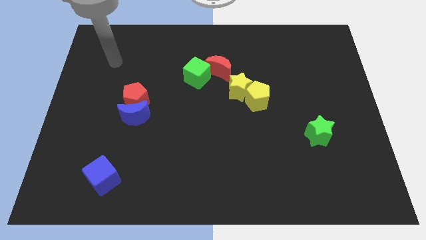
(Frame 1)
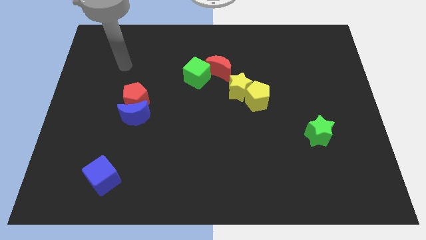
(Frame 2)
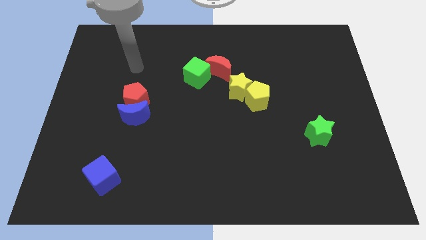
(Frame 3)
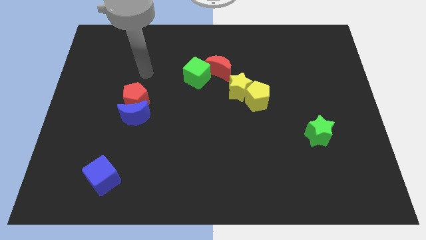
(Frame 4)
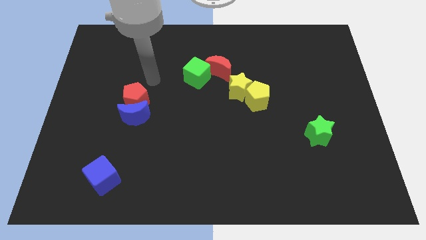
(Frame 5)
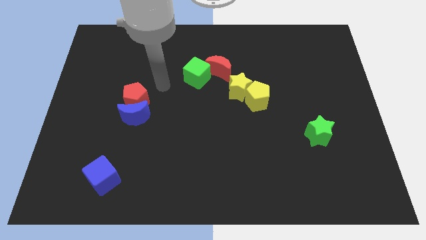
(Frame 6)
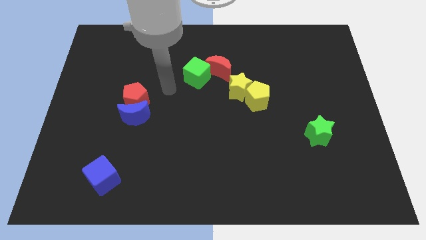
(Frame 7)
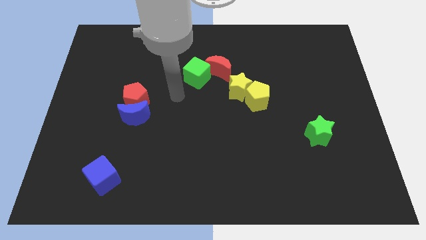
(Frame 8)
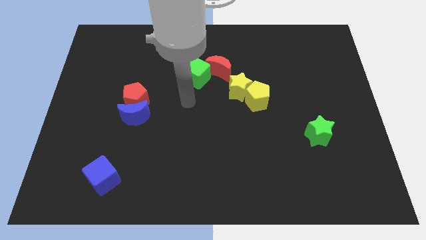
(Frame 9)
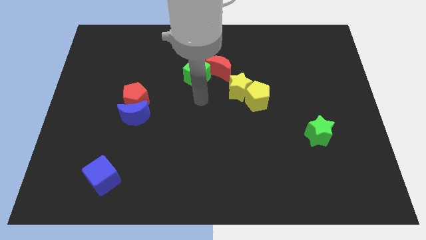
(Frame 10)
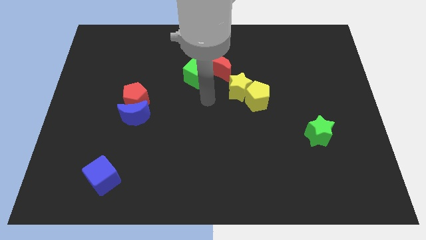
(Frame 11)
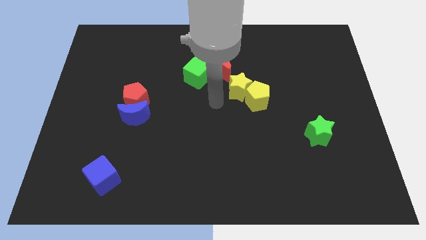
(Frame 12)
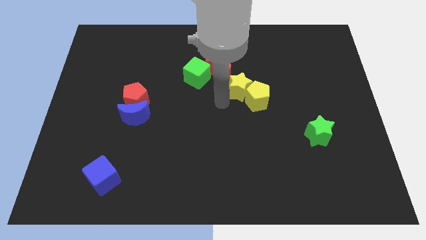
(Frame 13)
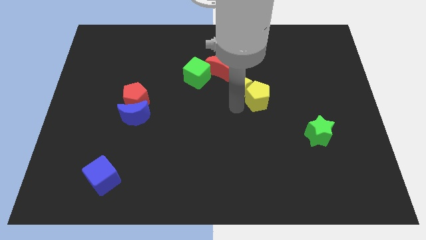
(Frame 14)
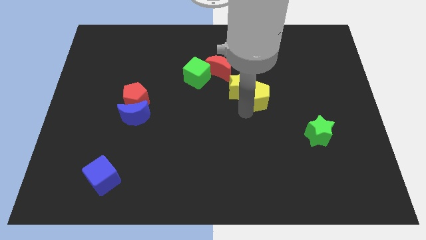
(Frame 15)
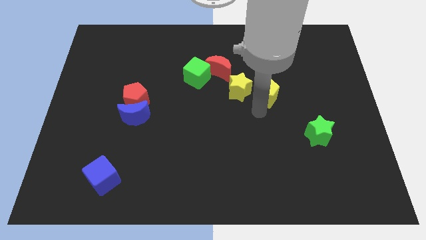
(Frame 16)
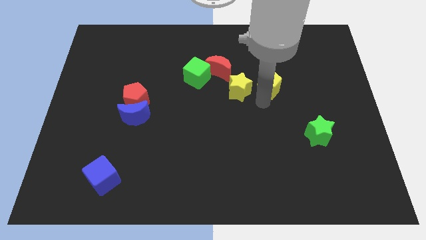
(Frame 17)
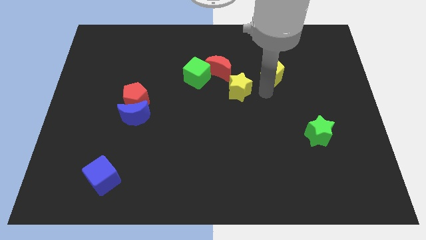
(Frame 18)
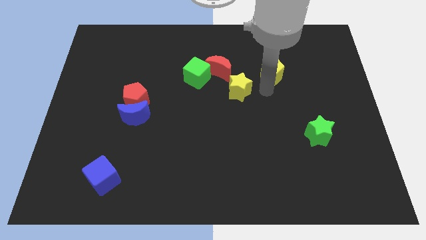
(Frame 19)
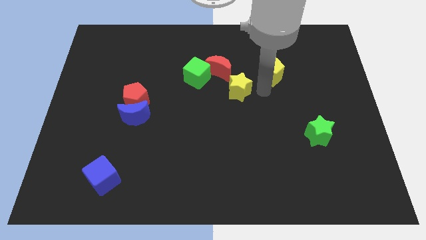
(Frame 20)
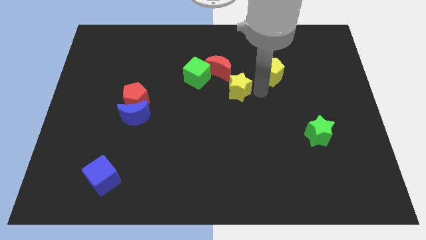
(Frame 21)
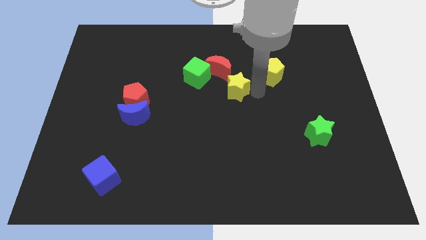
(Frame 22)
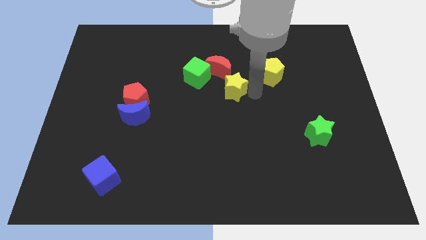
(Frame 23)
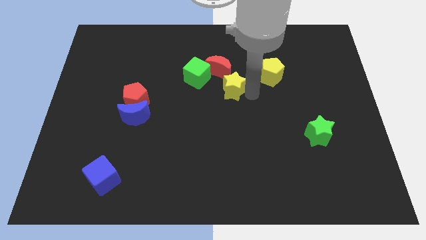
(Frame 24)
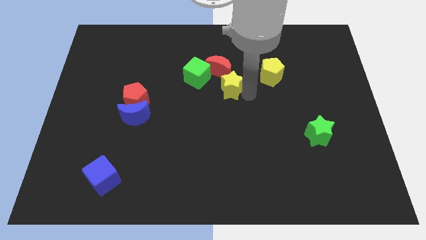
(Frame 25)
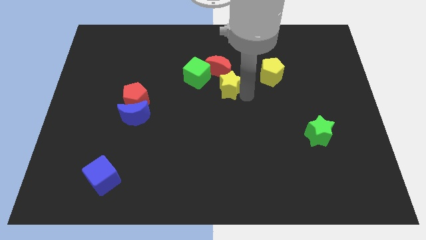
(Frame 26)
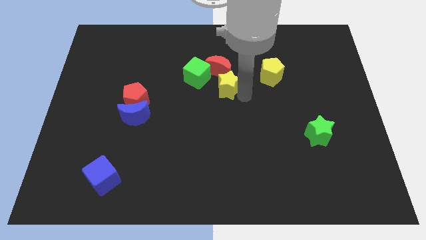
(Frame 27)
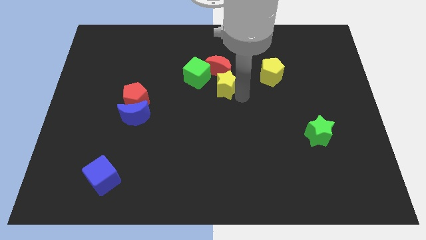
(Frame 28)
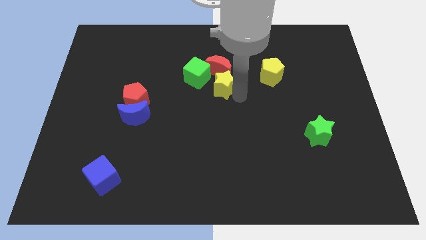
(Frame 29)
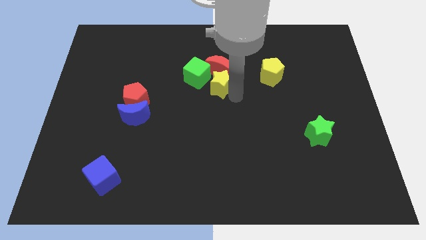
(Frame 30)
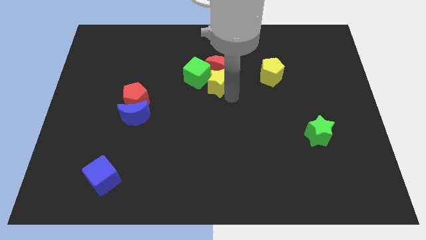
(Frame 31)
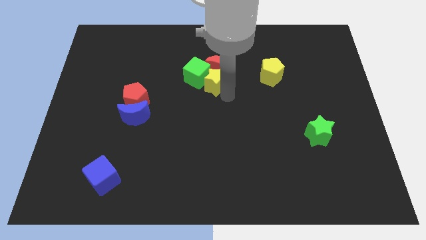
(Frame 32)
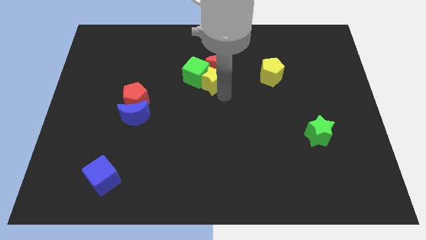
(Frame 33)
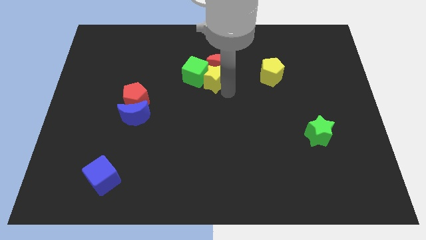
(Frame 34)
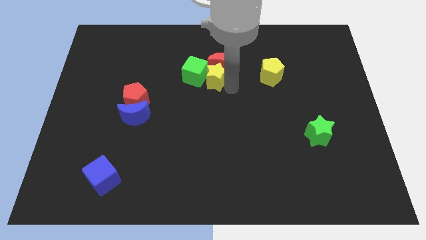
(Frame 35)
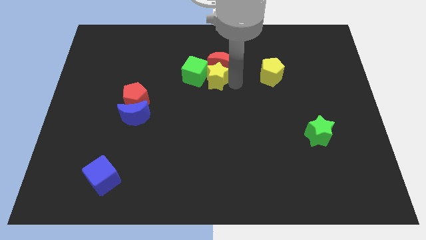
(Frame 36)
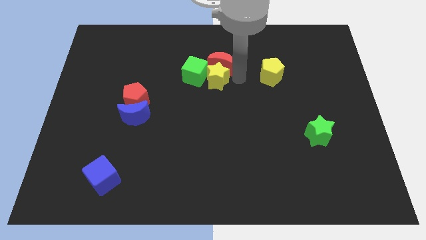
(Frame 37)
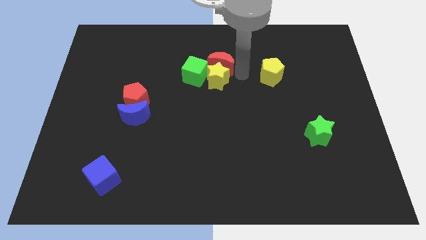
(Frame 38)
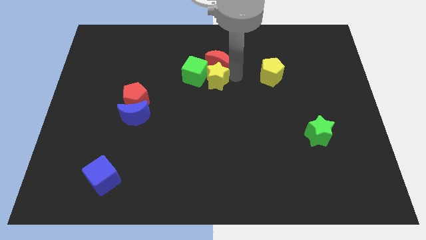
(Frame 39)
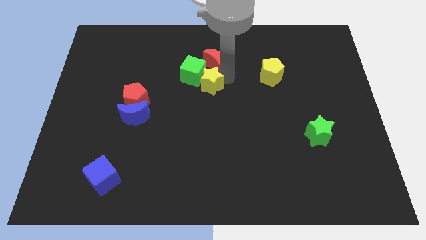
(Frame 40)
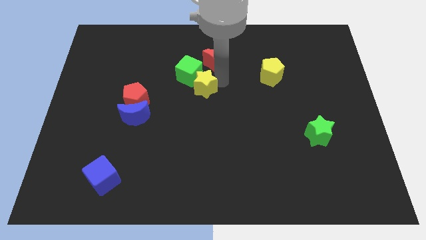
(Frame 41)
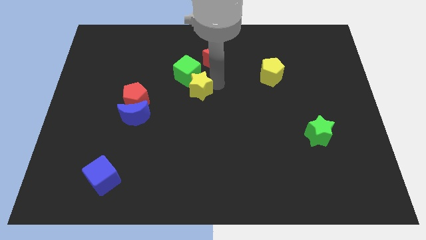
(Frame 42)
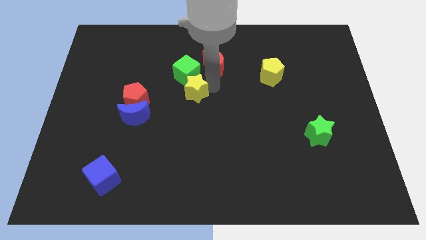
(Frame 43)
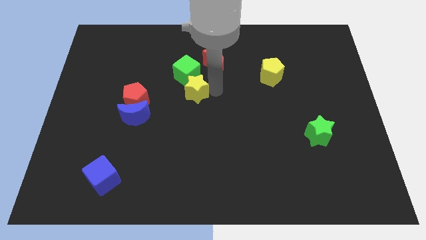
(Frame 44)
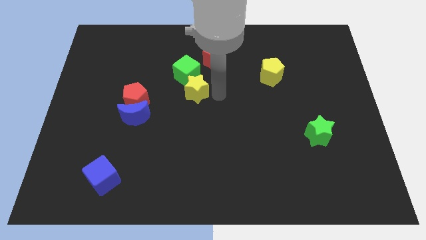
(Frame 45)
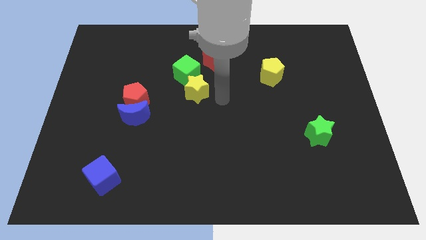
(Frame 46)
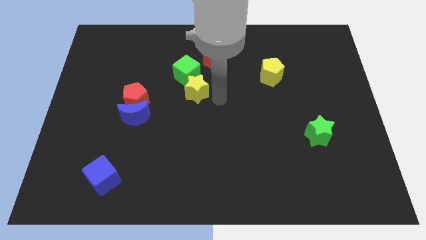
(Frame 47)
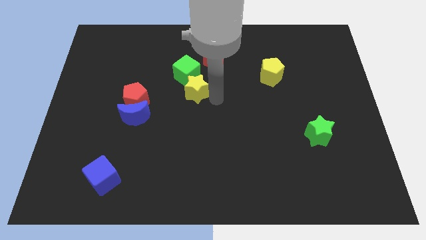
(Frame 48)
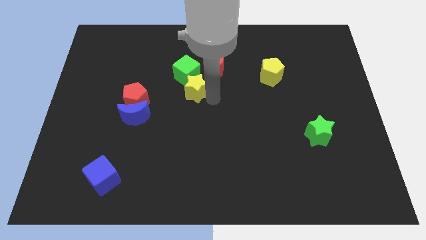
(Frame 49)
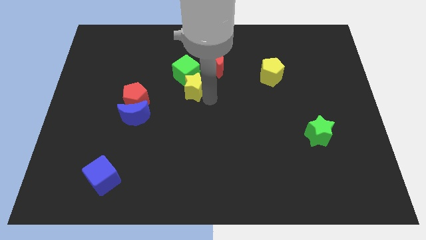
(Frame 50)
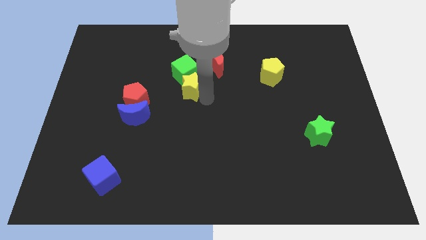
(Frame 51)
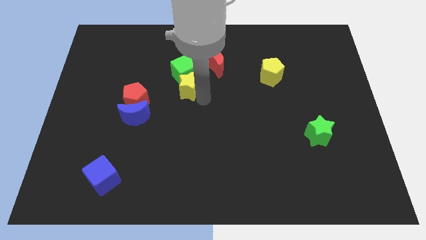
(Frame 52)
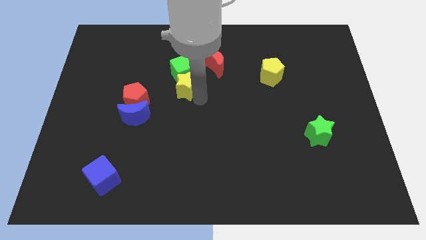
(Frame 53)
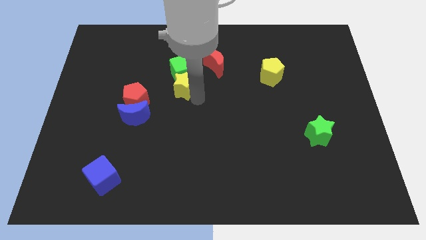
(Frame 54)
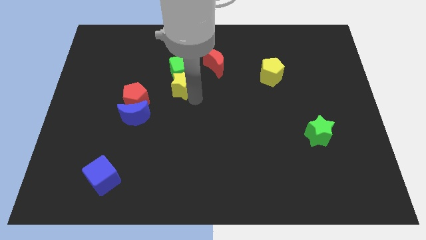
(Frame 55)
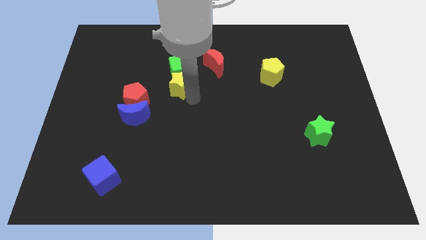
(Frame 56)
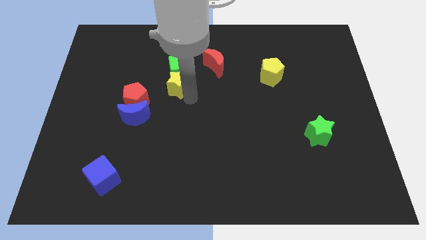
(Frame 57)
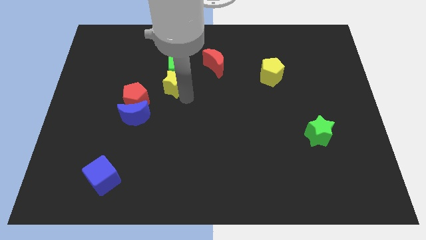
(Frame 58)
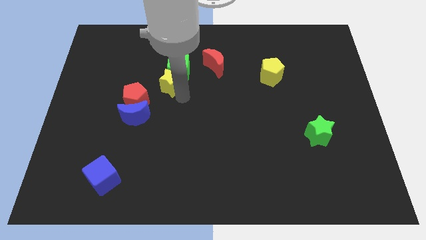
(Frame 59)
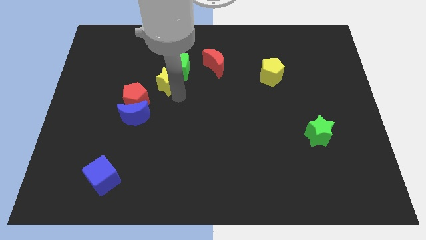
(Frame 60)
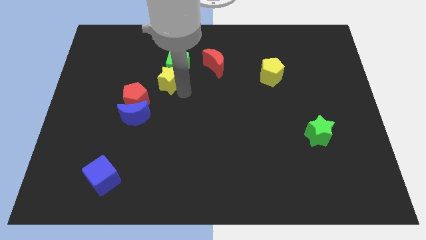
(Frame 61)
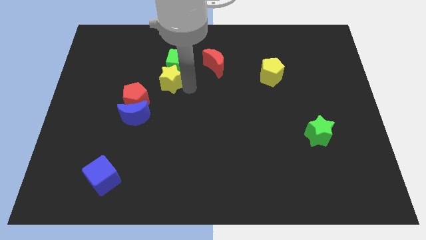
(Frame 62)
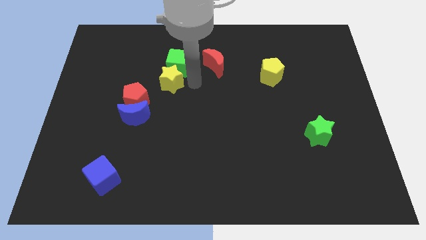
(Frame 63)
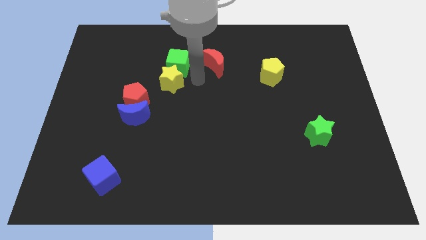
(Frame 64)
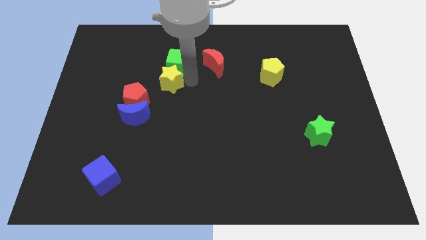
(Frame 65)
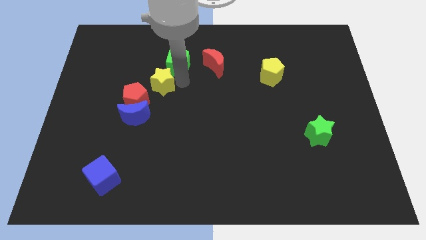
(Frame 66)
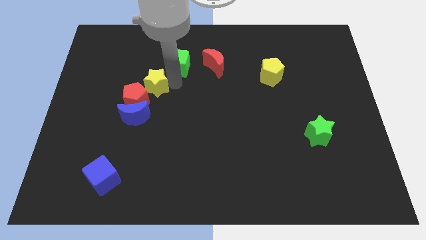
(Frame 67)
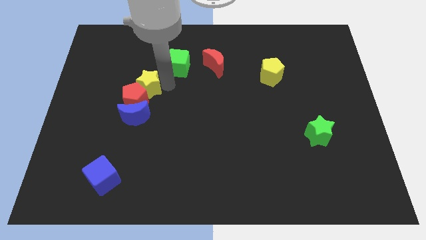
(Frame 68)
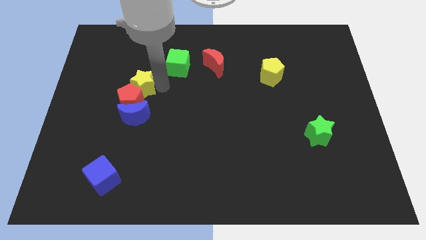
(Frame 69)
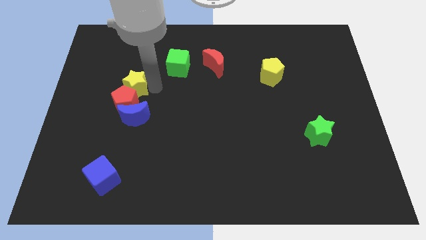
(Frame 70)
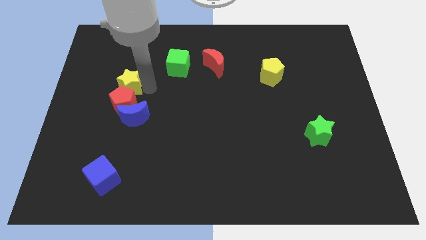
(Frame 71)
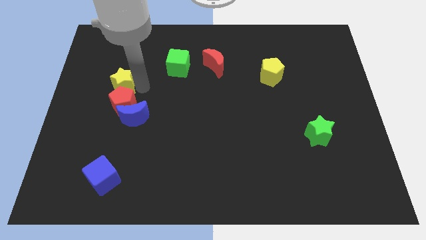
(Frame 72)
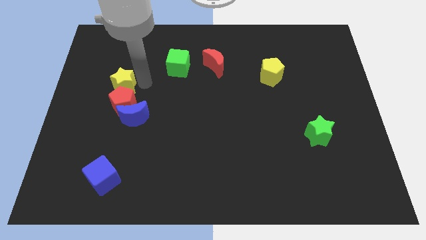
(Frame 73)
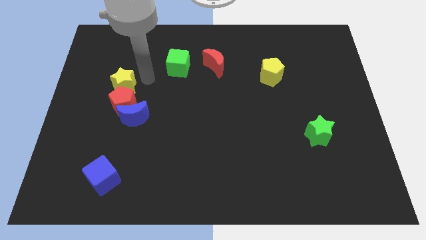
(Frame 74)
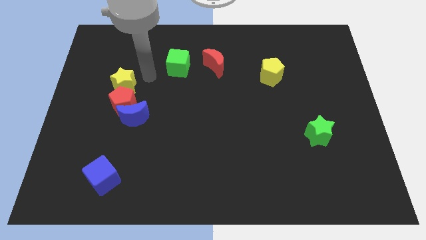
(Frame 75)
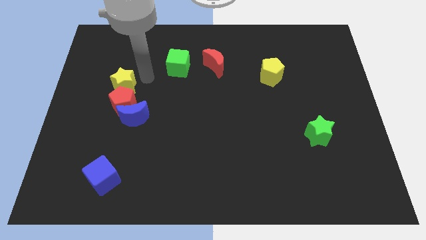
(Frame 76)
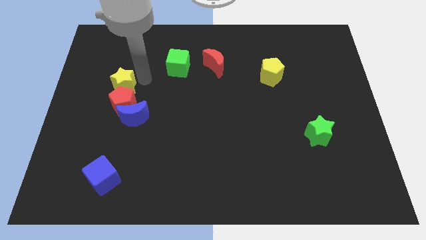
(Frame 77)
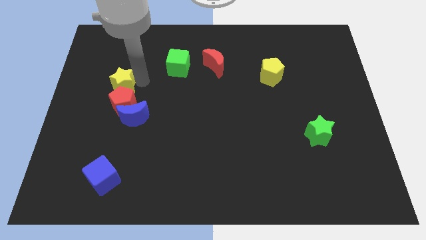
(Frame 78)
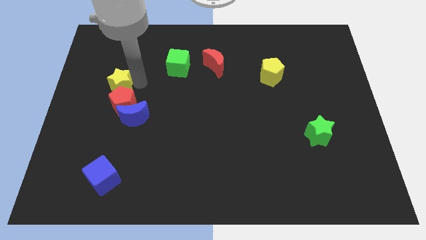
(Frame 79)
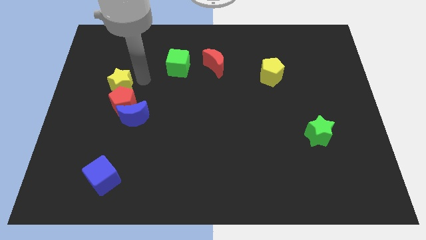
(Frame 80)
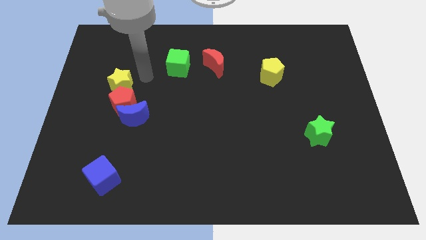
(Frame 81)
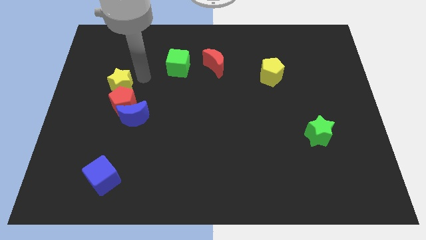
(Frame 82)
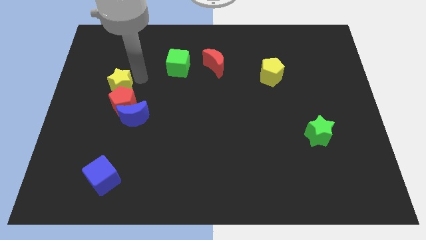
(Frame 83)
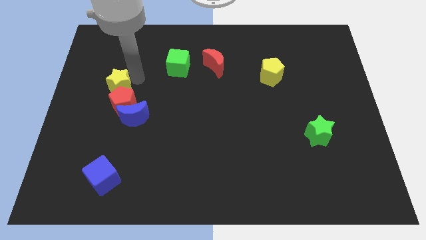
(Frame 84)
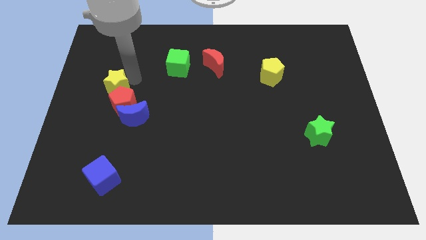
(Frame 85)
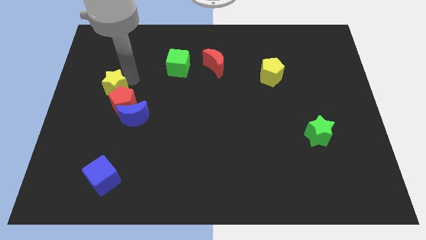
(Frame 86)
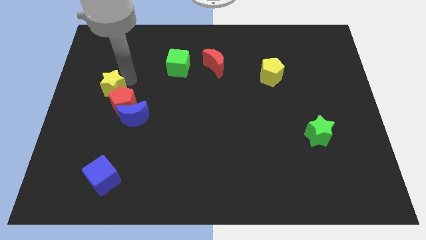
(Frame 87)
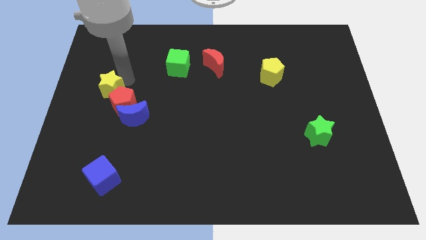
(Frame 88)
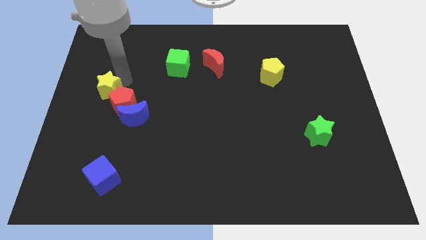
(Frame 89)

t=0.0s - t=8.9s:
move the yellow star to the center left
